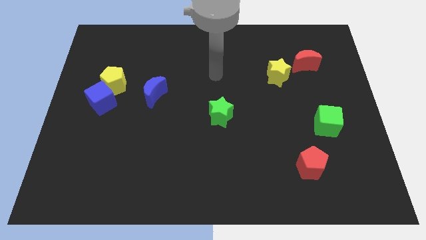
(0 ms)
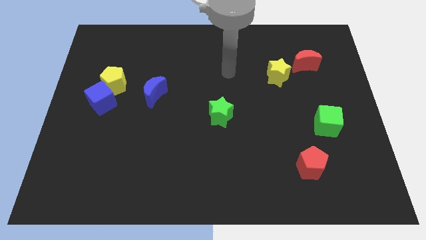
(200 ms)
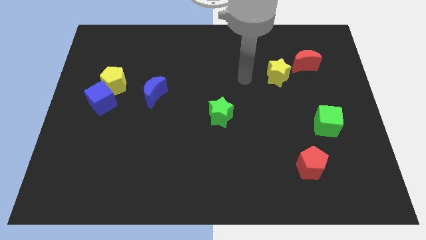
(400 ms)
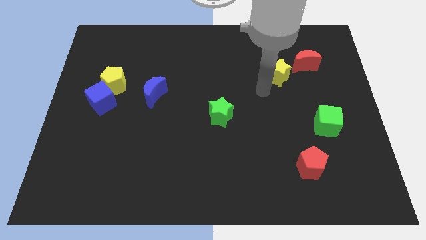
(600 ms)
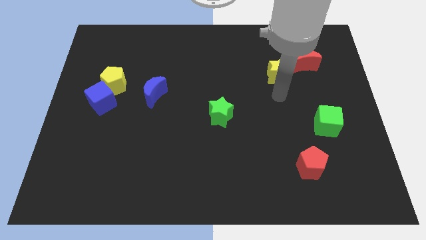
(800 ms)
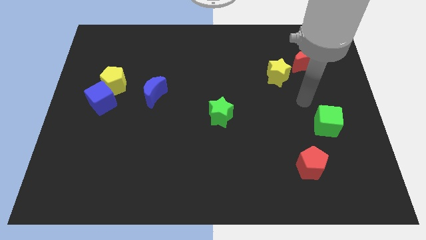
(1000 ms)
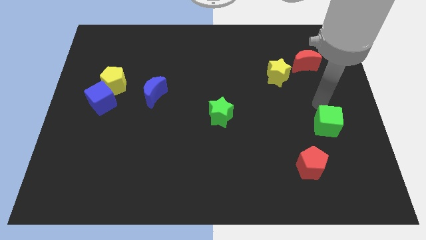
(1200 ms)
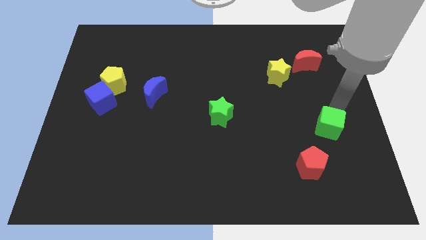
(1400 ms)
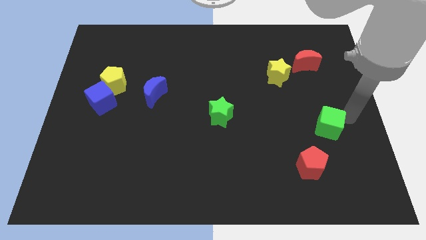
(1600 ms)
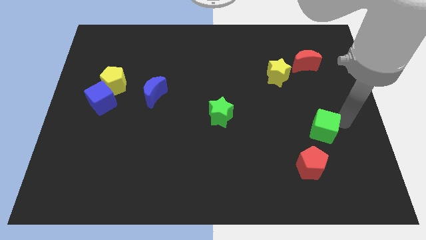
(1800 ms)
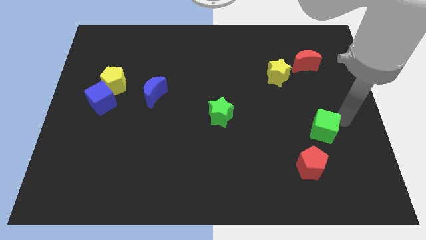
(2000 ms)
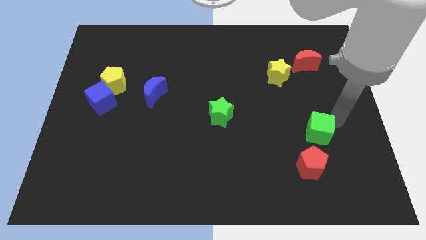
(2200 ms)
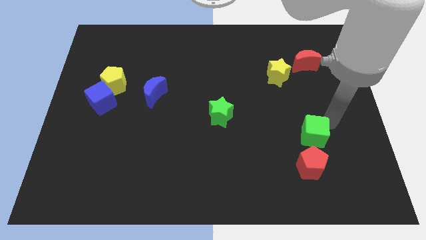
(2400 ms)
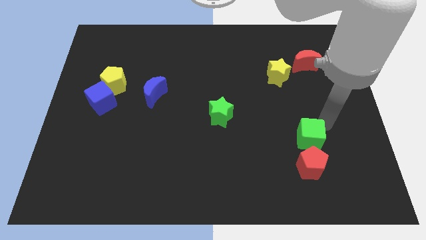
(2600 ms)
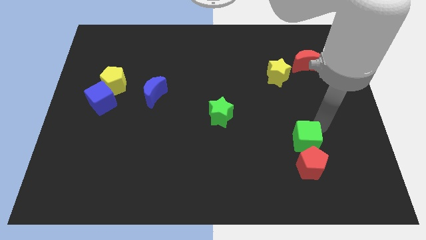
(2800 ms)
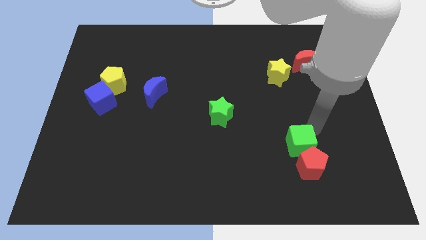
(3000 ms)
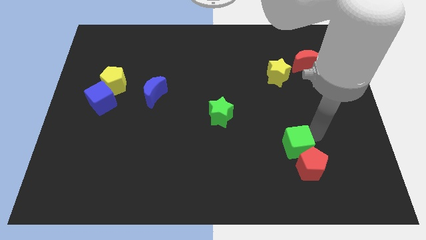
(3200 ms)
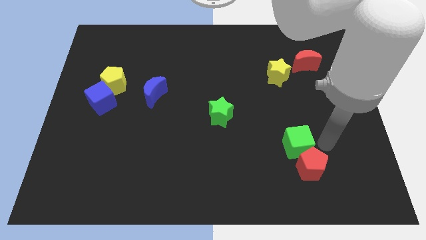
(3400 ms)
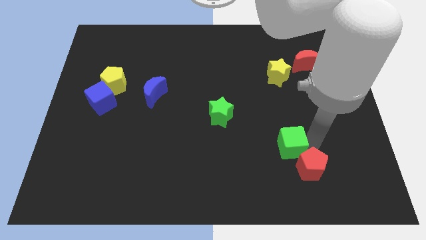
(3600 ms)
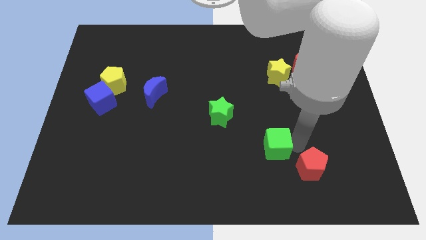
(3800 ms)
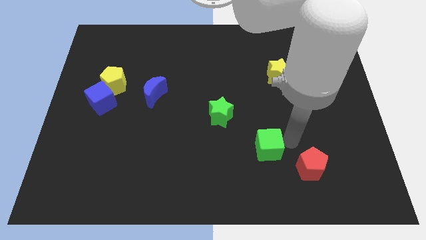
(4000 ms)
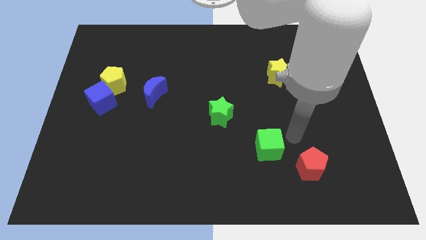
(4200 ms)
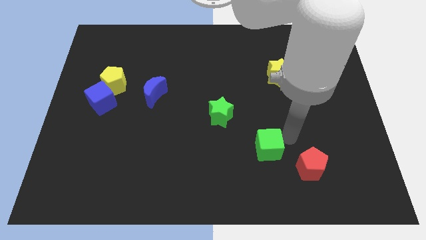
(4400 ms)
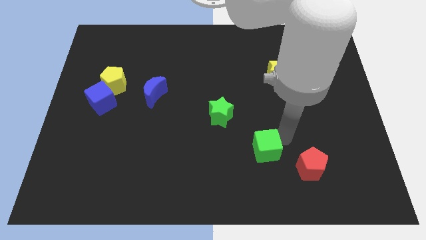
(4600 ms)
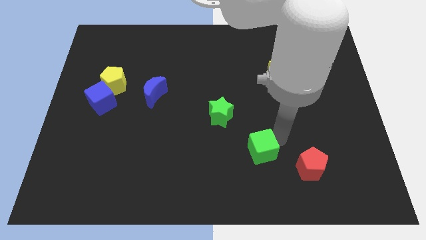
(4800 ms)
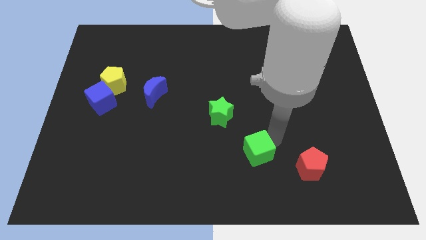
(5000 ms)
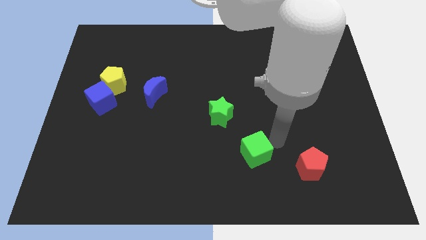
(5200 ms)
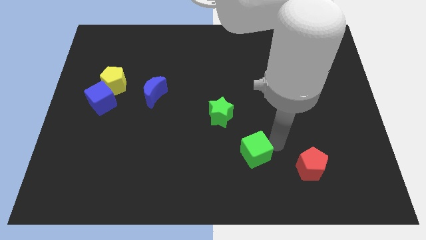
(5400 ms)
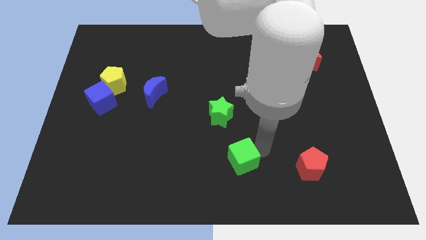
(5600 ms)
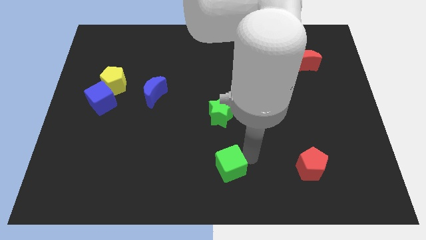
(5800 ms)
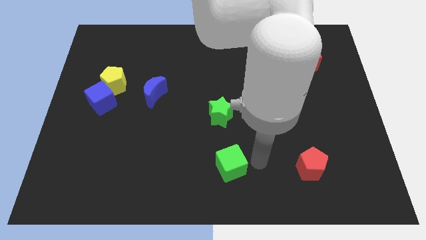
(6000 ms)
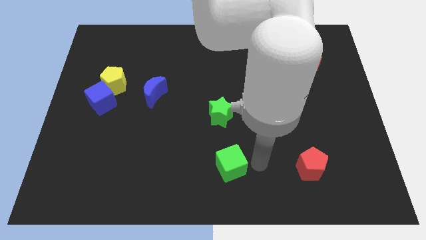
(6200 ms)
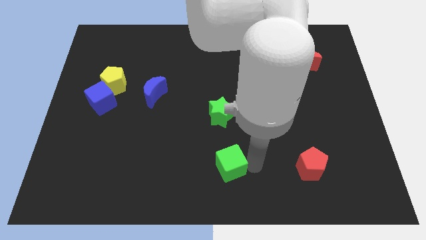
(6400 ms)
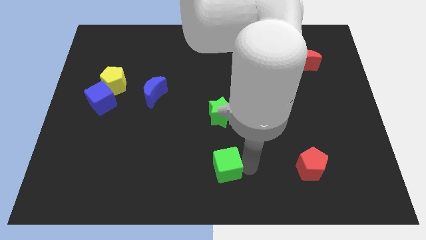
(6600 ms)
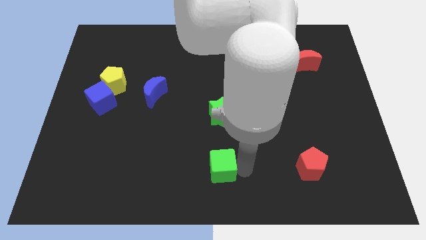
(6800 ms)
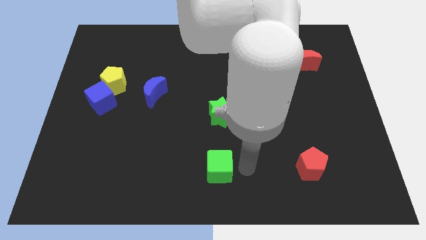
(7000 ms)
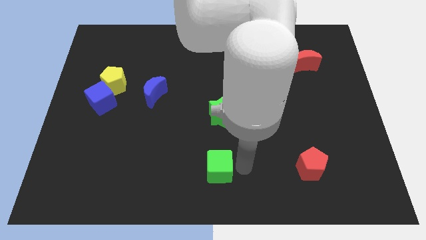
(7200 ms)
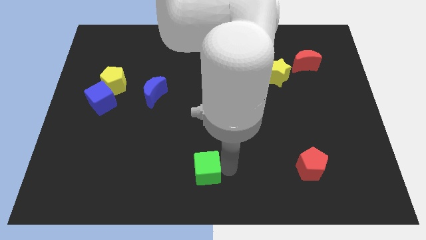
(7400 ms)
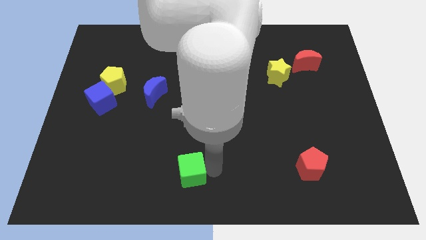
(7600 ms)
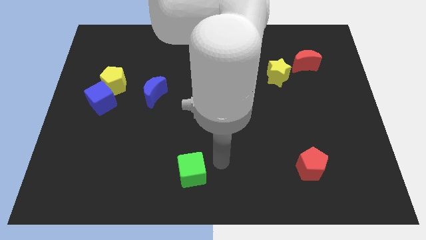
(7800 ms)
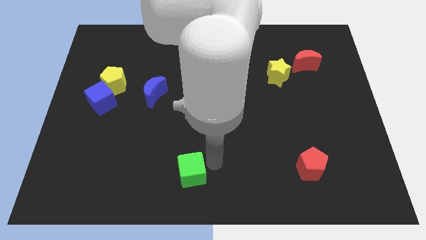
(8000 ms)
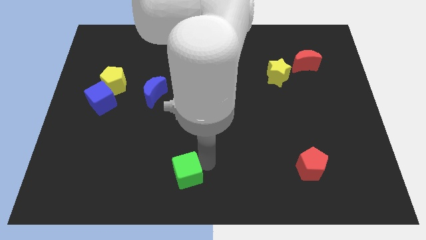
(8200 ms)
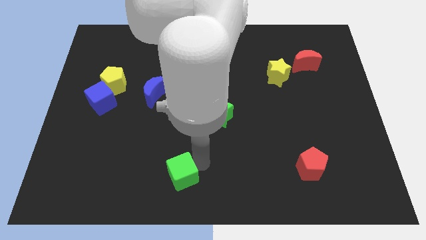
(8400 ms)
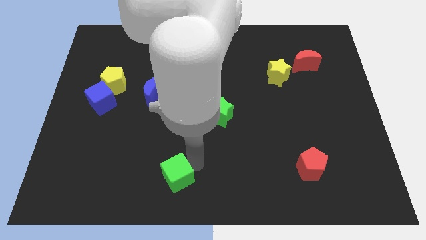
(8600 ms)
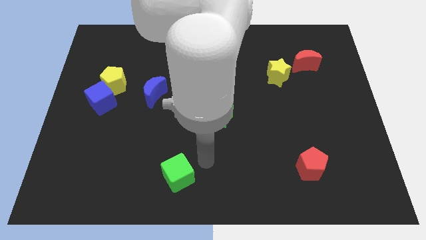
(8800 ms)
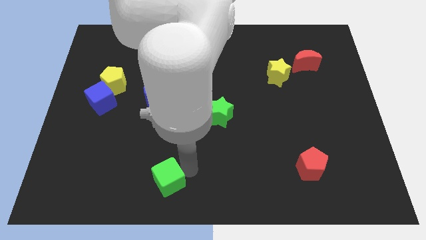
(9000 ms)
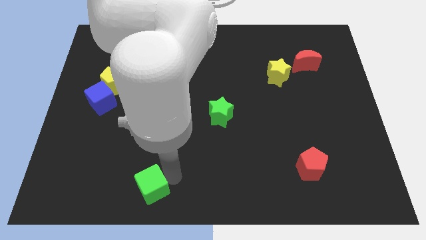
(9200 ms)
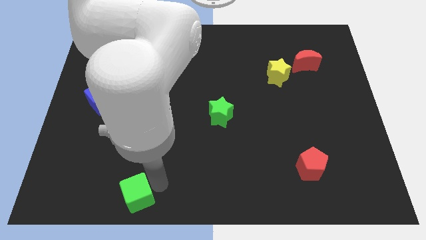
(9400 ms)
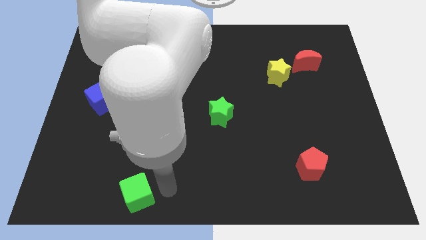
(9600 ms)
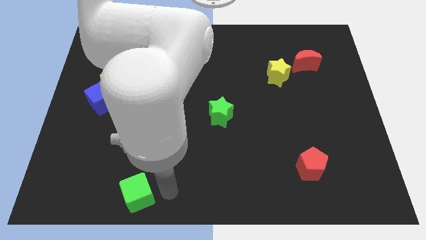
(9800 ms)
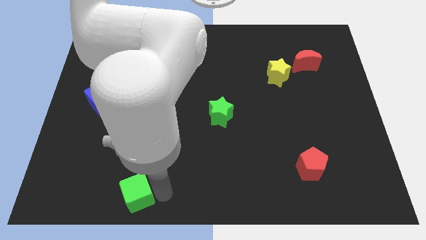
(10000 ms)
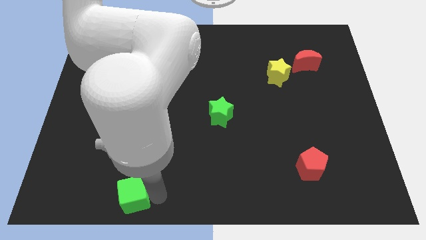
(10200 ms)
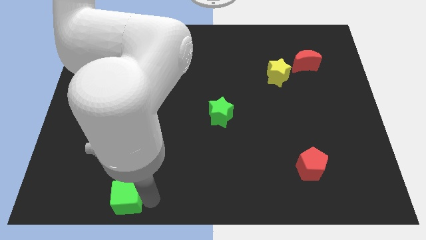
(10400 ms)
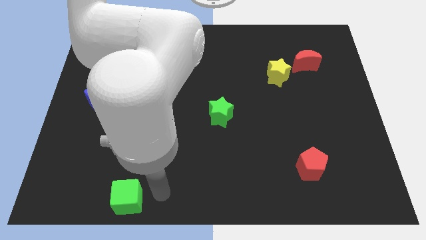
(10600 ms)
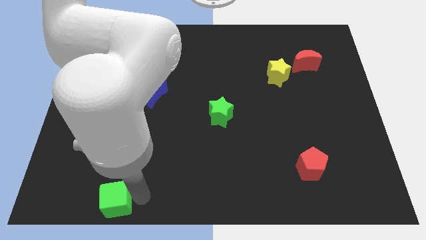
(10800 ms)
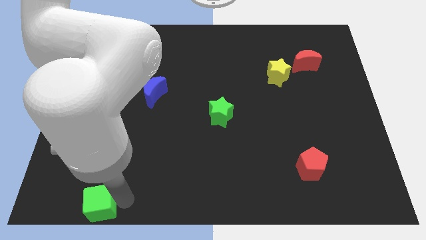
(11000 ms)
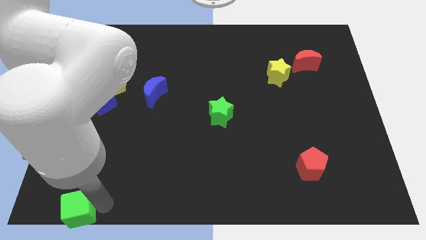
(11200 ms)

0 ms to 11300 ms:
move the green cube to the bottom left of the board

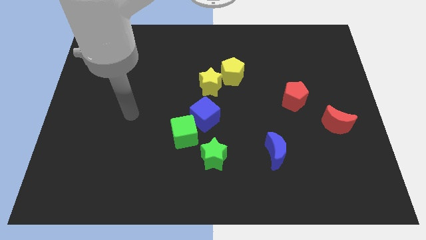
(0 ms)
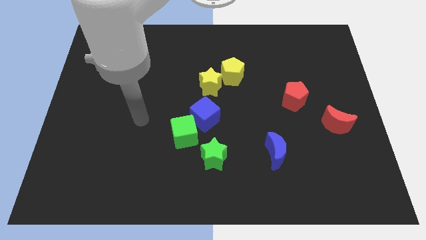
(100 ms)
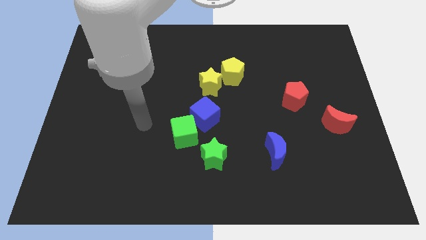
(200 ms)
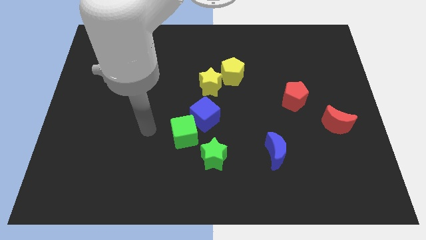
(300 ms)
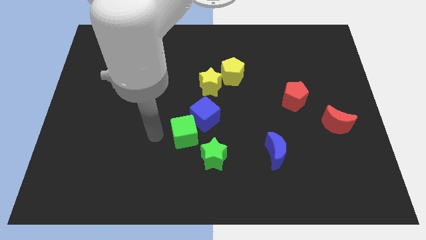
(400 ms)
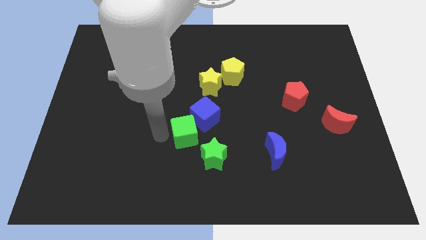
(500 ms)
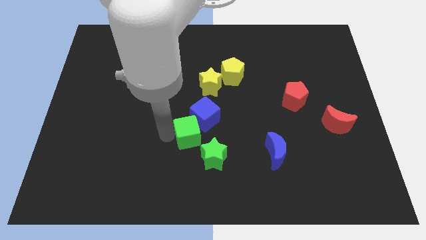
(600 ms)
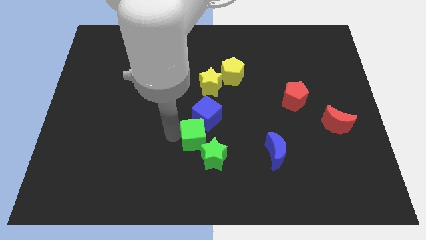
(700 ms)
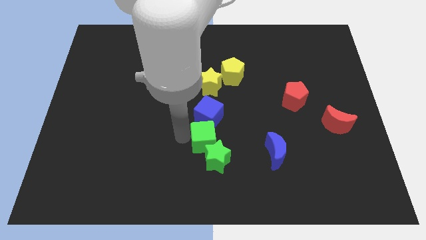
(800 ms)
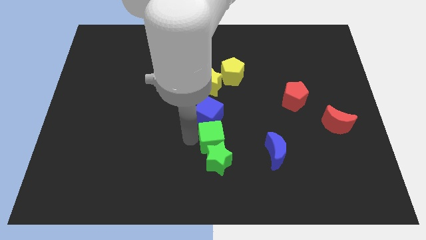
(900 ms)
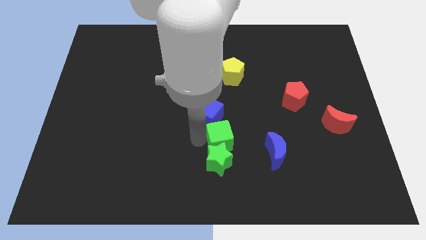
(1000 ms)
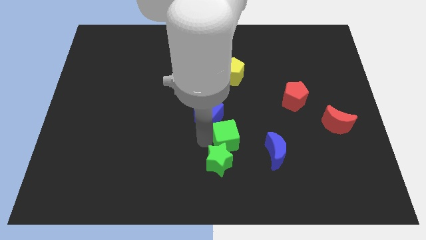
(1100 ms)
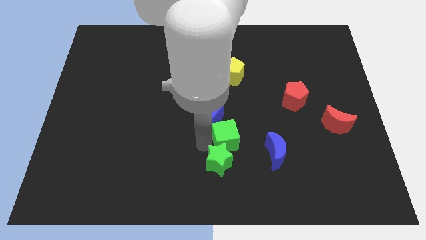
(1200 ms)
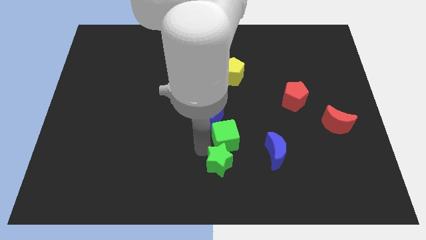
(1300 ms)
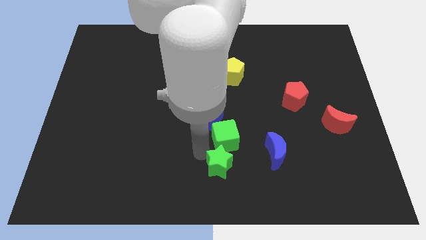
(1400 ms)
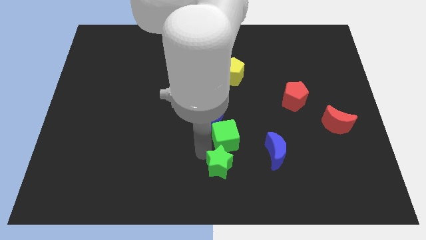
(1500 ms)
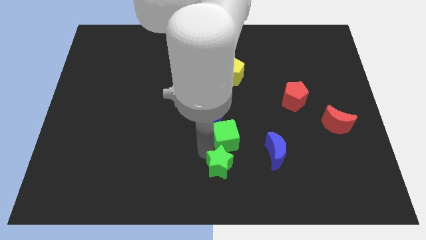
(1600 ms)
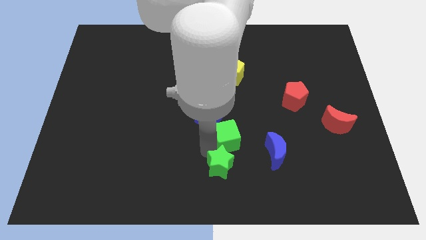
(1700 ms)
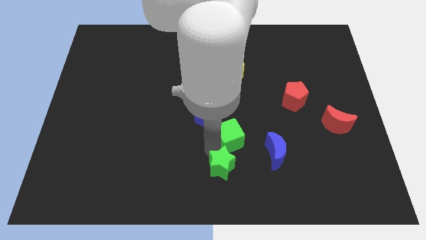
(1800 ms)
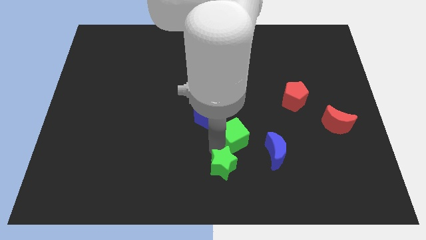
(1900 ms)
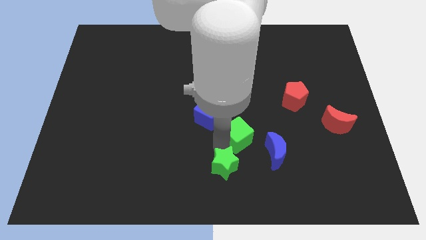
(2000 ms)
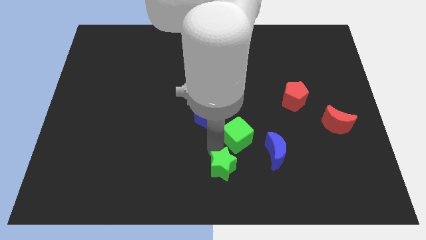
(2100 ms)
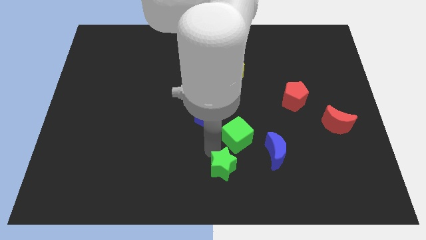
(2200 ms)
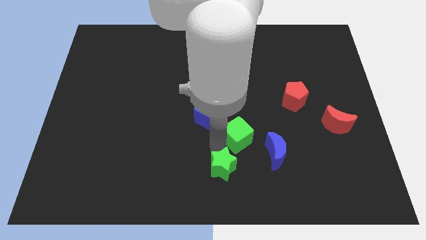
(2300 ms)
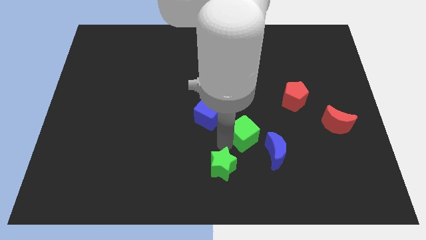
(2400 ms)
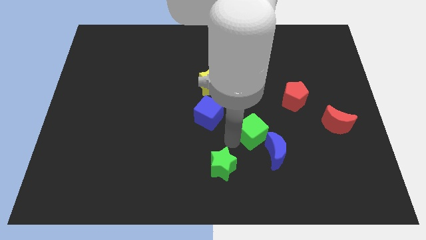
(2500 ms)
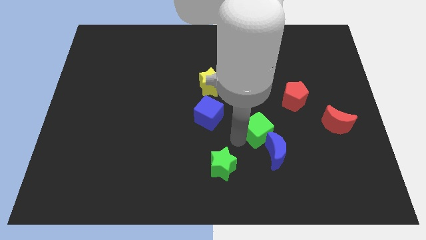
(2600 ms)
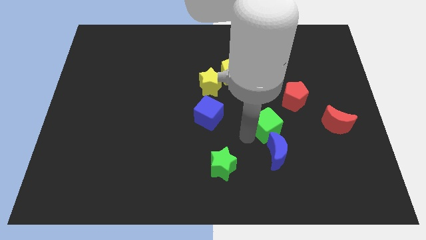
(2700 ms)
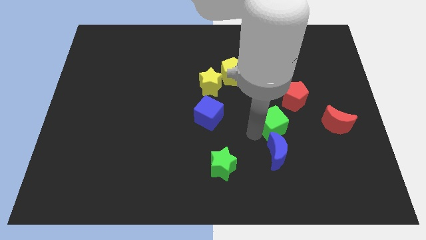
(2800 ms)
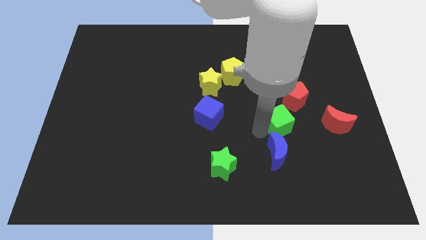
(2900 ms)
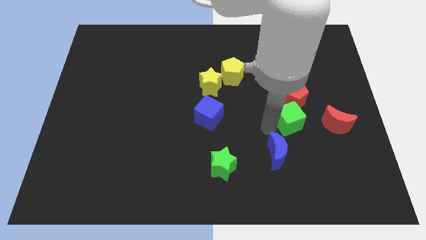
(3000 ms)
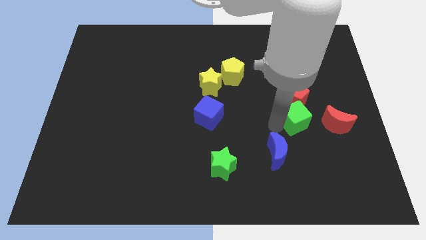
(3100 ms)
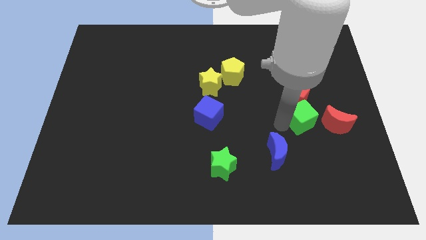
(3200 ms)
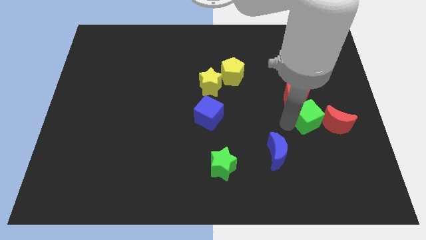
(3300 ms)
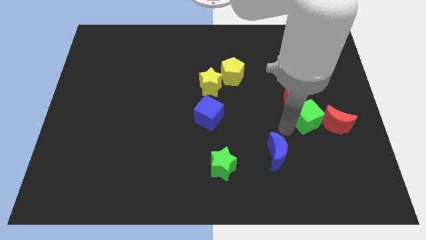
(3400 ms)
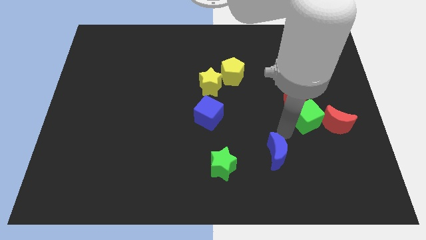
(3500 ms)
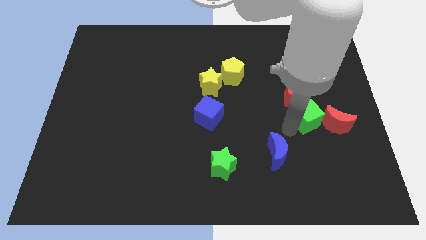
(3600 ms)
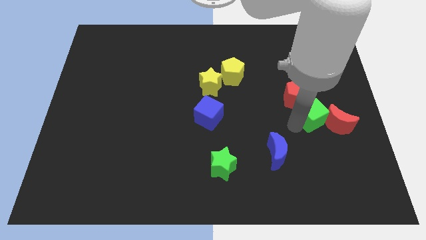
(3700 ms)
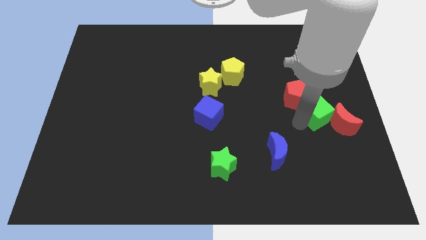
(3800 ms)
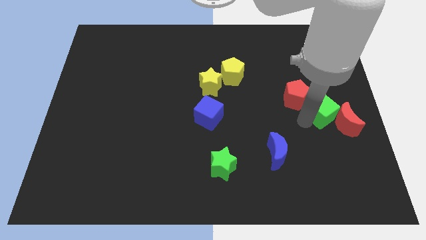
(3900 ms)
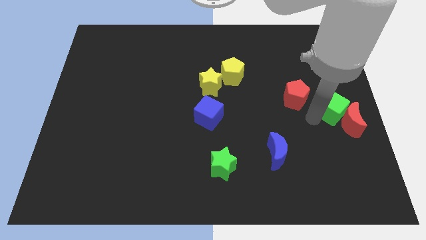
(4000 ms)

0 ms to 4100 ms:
push the green cube to the center right
